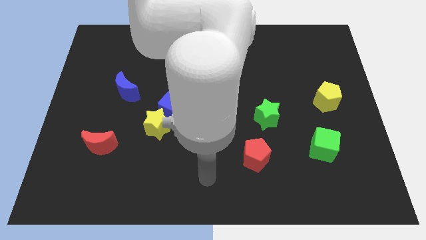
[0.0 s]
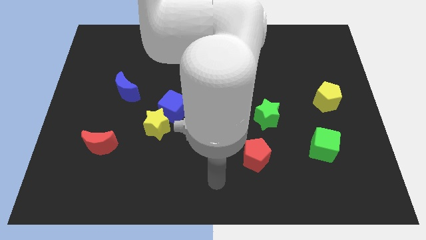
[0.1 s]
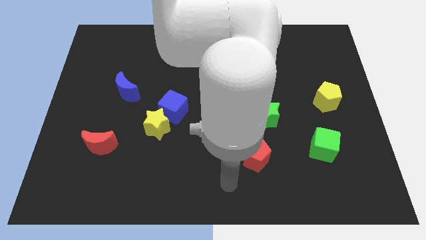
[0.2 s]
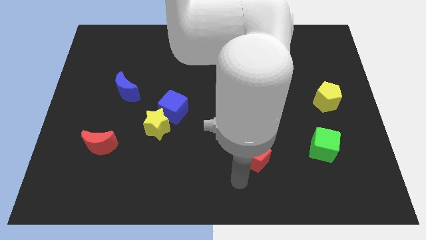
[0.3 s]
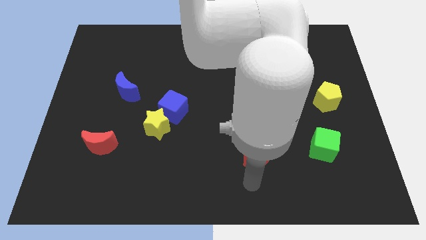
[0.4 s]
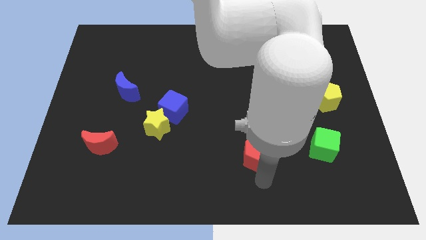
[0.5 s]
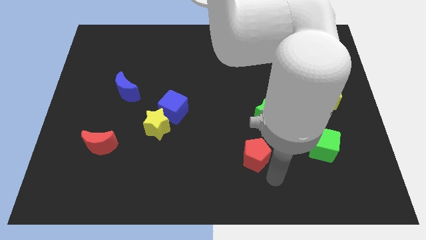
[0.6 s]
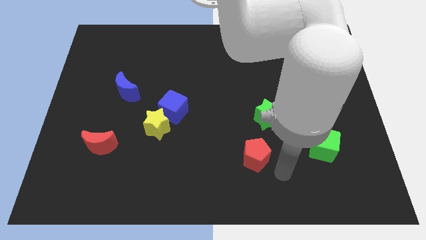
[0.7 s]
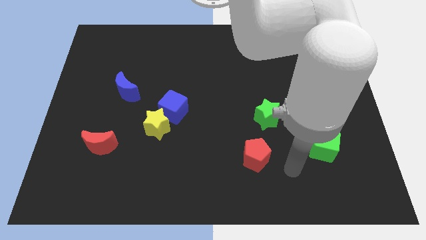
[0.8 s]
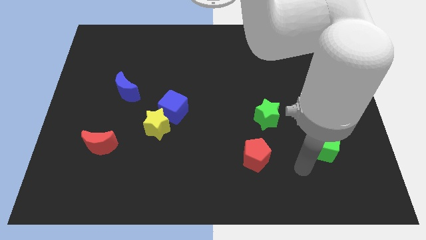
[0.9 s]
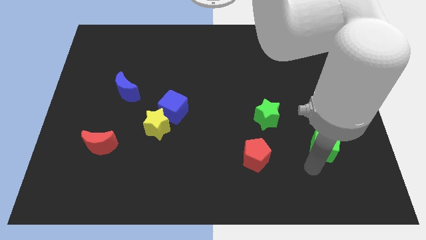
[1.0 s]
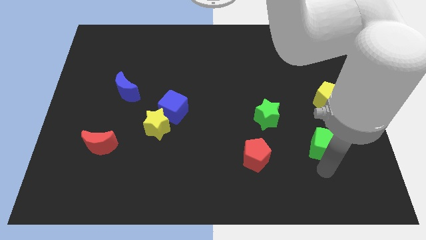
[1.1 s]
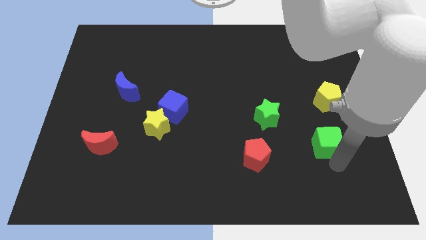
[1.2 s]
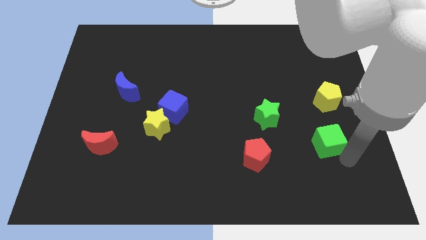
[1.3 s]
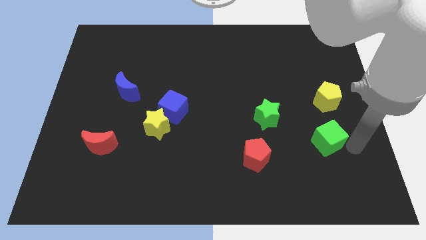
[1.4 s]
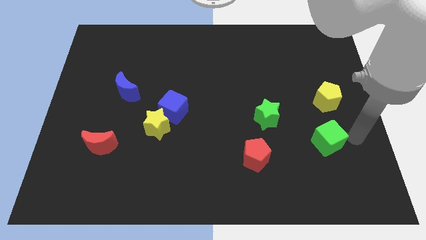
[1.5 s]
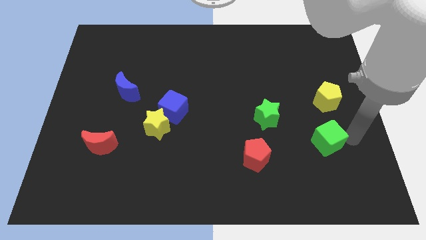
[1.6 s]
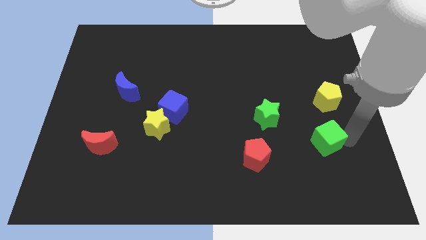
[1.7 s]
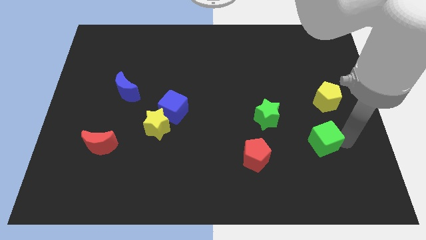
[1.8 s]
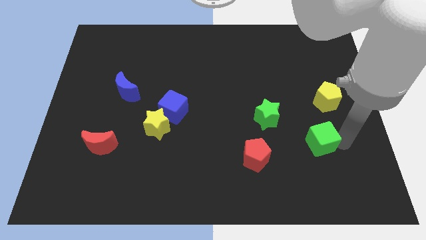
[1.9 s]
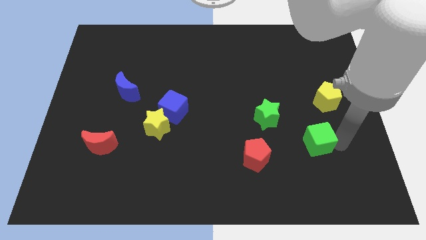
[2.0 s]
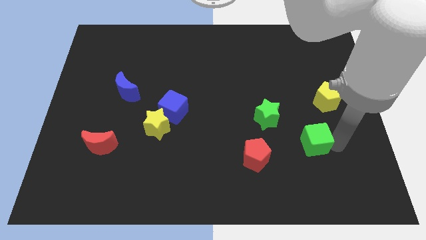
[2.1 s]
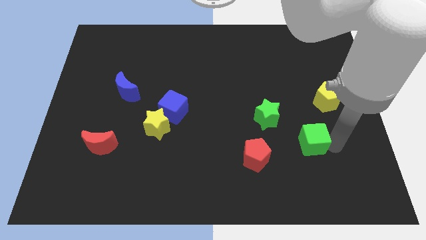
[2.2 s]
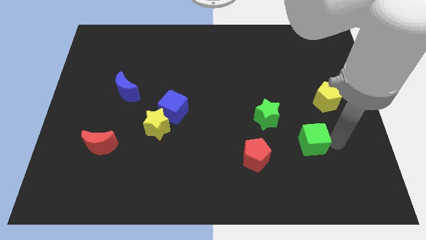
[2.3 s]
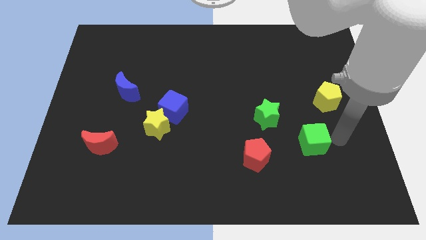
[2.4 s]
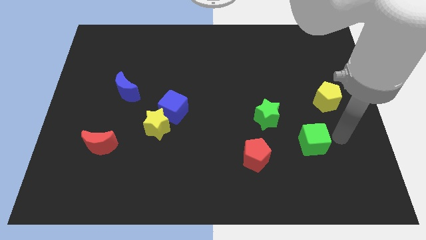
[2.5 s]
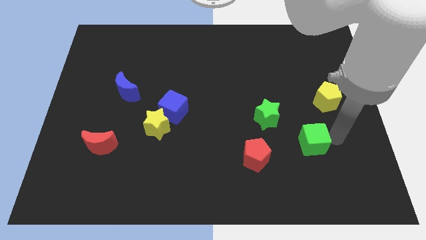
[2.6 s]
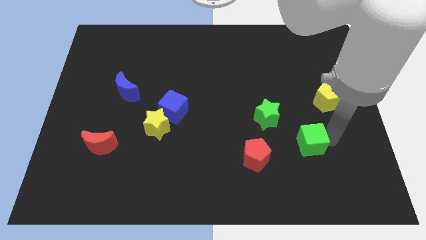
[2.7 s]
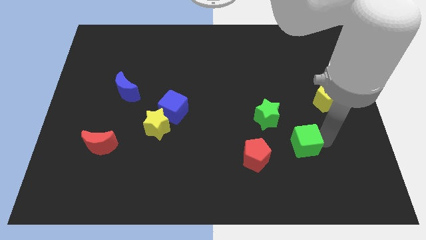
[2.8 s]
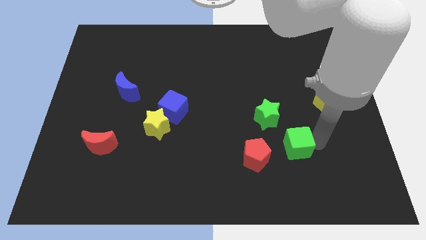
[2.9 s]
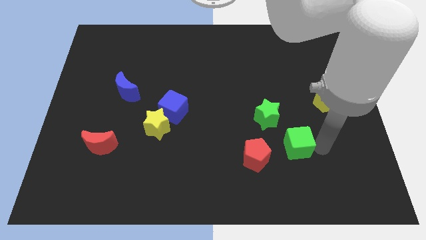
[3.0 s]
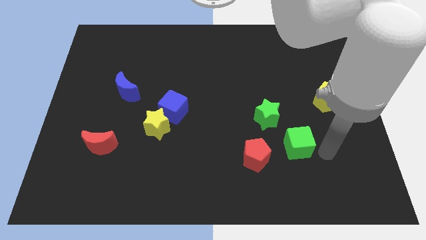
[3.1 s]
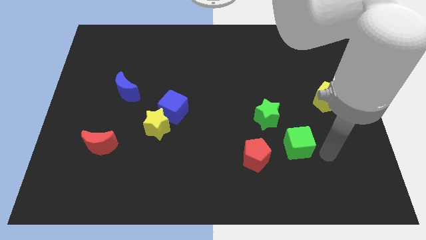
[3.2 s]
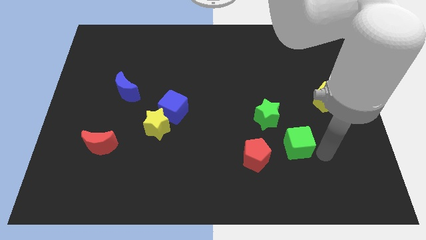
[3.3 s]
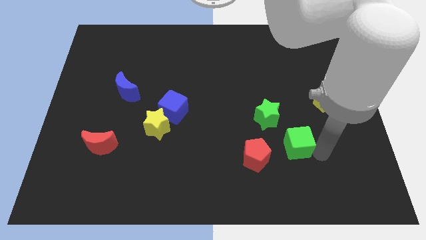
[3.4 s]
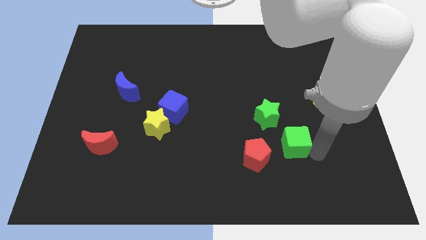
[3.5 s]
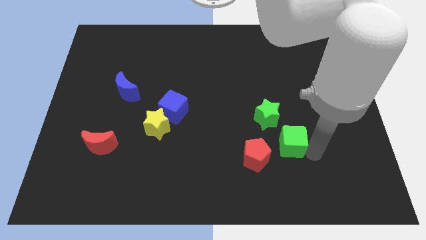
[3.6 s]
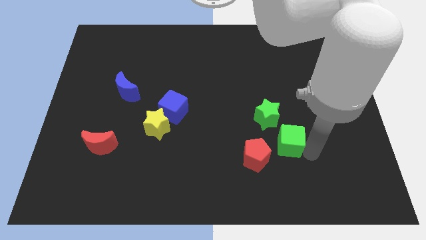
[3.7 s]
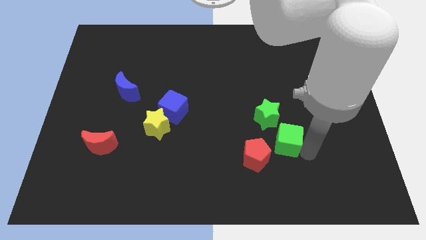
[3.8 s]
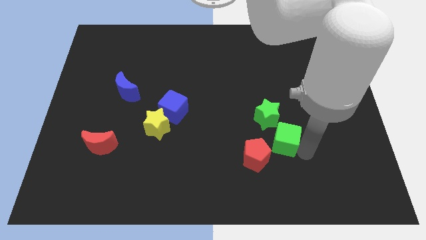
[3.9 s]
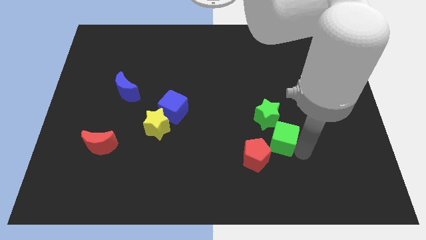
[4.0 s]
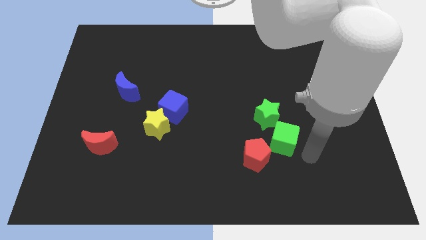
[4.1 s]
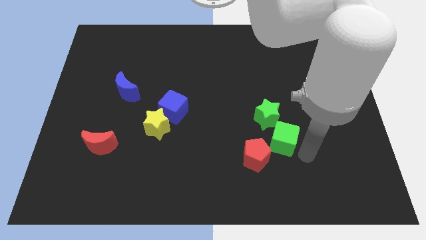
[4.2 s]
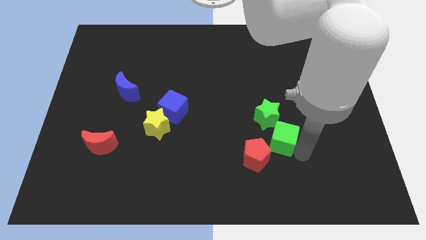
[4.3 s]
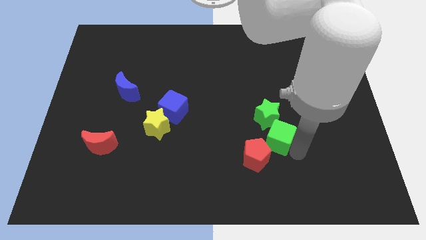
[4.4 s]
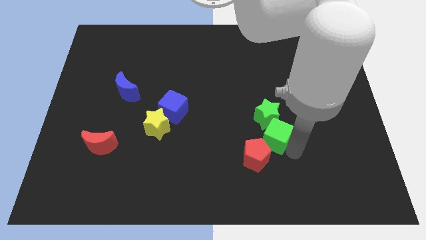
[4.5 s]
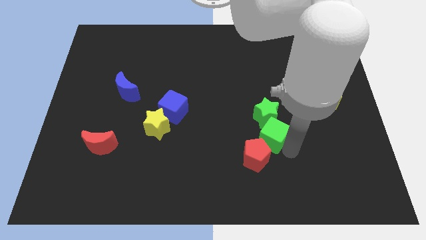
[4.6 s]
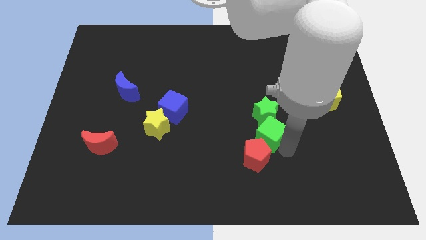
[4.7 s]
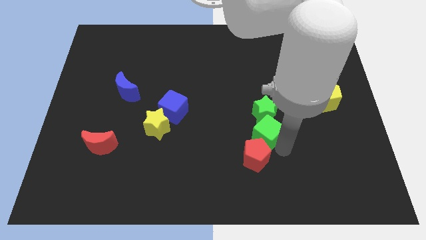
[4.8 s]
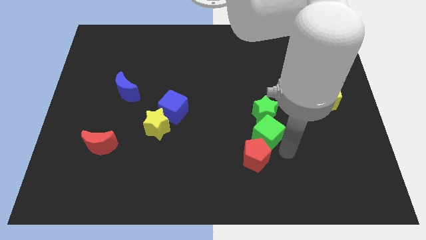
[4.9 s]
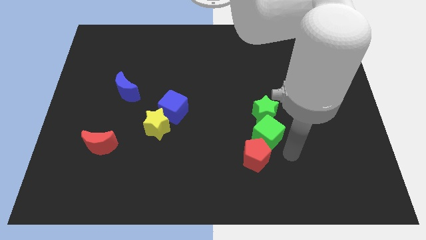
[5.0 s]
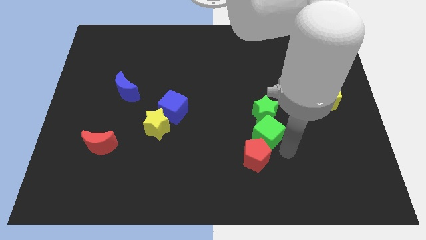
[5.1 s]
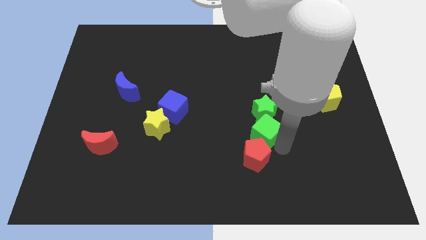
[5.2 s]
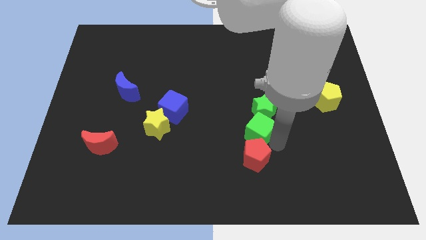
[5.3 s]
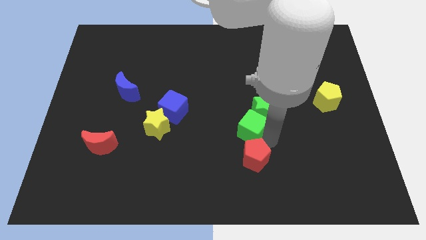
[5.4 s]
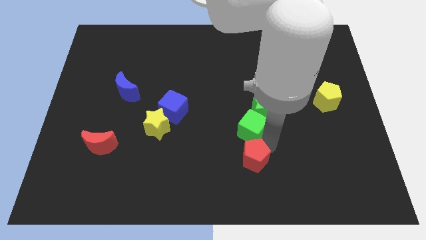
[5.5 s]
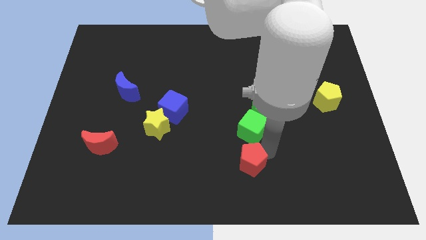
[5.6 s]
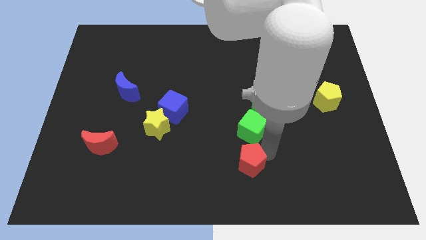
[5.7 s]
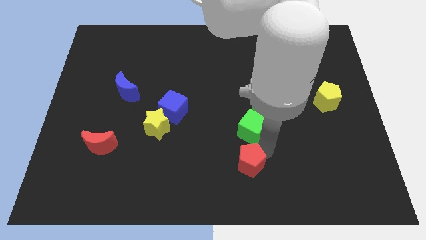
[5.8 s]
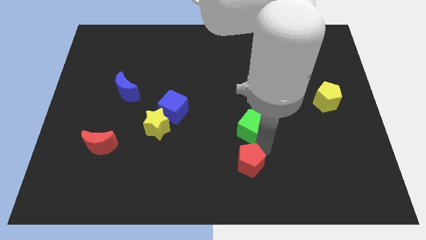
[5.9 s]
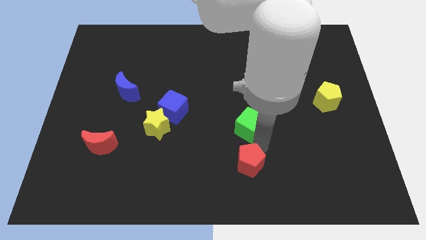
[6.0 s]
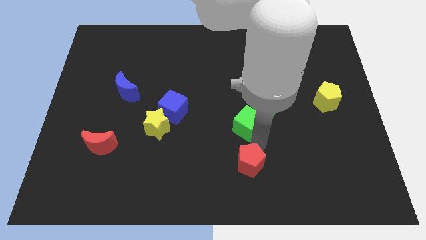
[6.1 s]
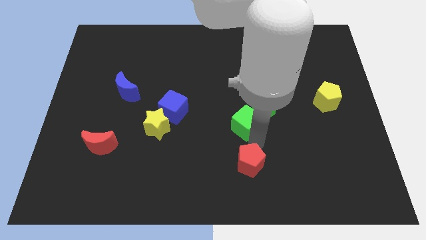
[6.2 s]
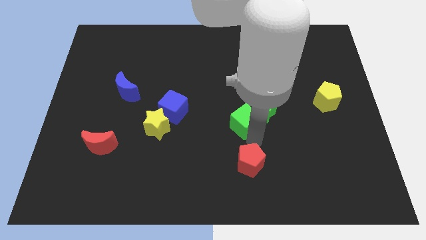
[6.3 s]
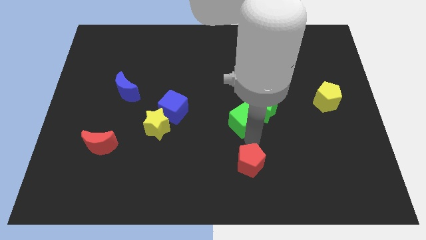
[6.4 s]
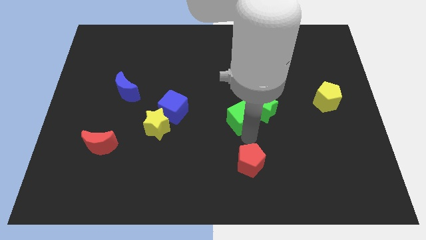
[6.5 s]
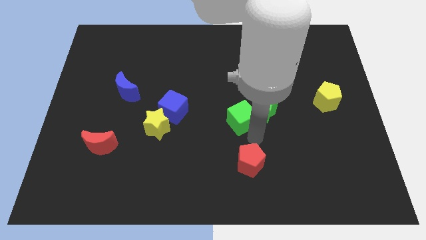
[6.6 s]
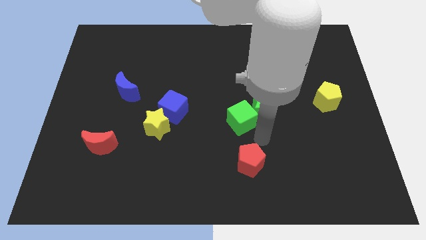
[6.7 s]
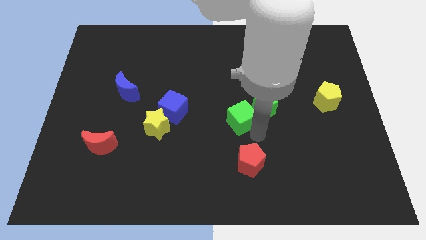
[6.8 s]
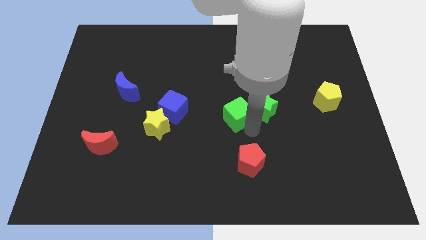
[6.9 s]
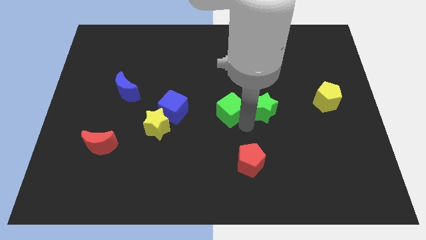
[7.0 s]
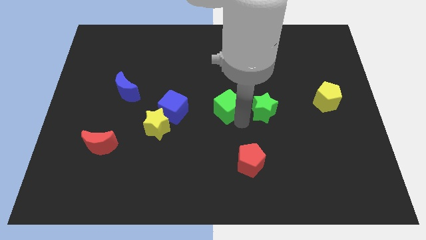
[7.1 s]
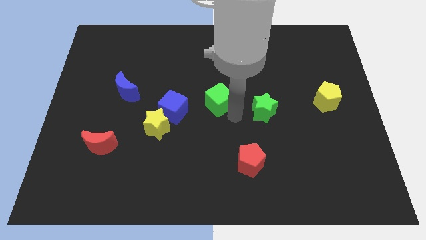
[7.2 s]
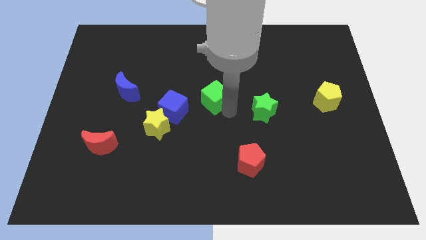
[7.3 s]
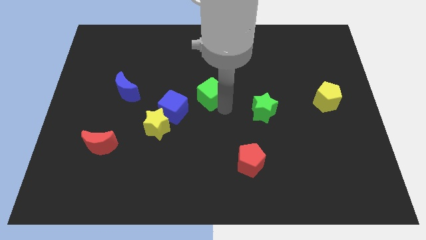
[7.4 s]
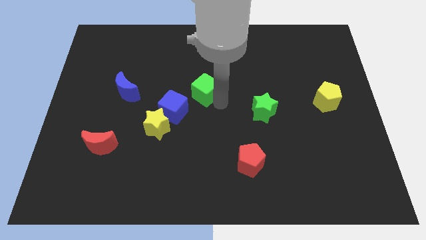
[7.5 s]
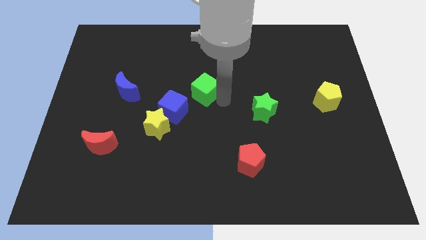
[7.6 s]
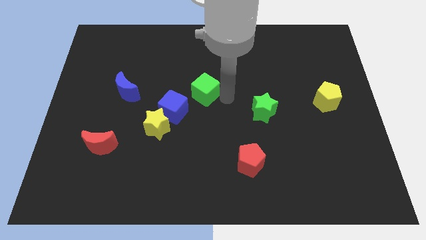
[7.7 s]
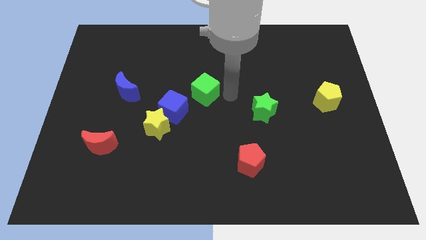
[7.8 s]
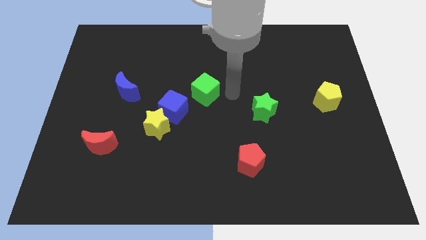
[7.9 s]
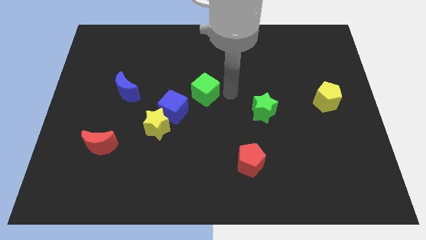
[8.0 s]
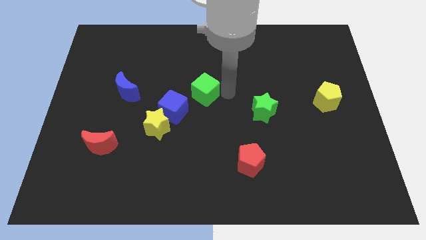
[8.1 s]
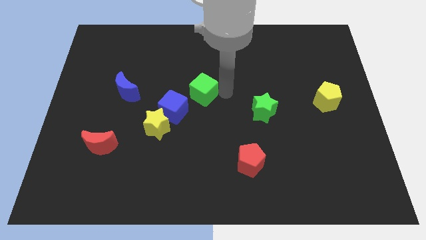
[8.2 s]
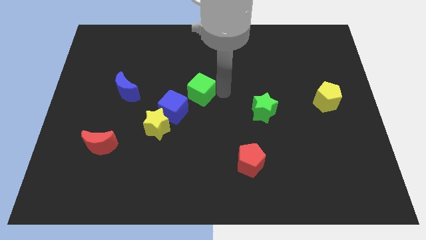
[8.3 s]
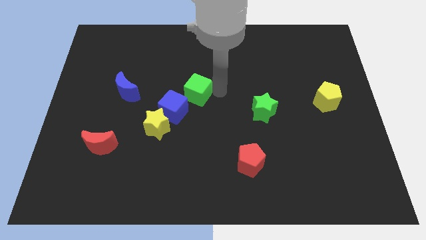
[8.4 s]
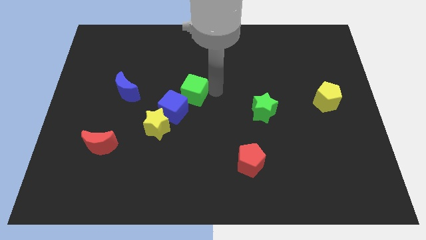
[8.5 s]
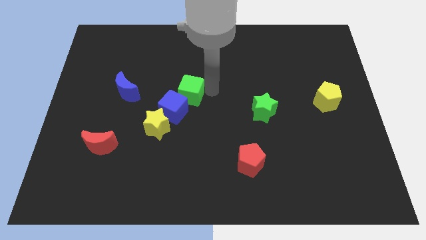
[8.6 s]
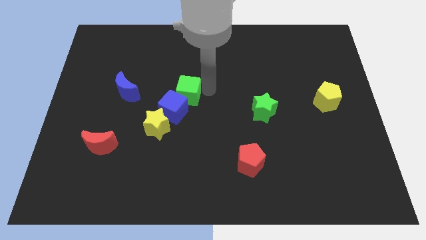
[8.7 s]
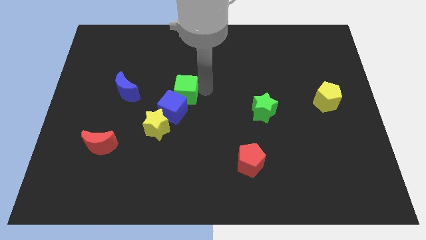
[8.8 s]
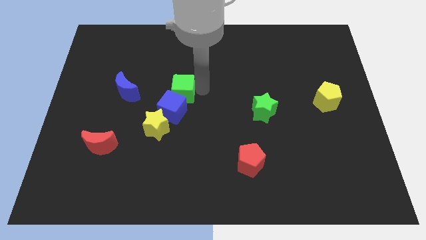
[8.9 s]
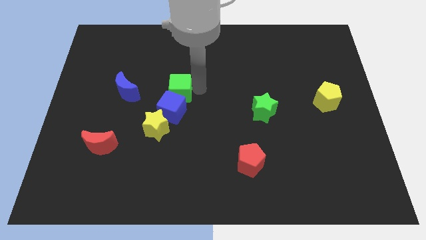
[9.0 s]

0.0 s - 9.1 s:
push the green cube to the top side of the yellow star
